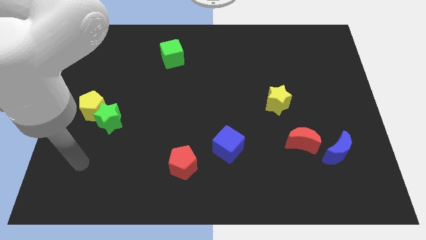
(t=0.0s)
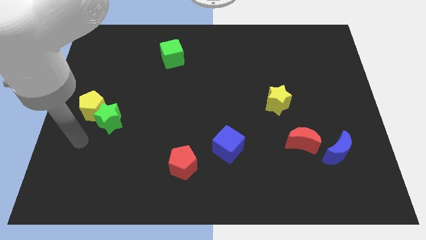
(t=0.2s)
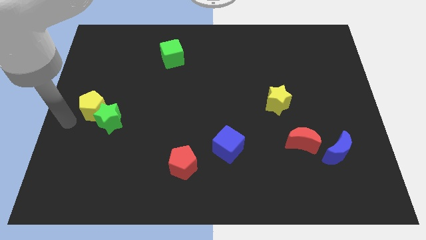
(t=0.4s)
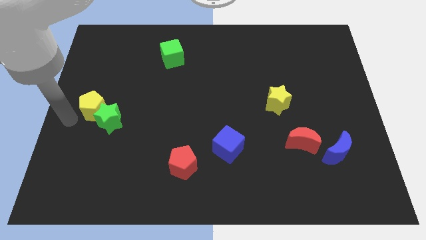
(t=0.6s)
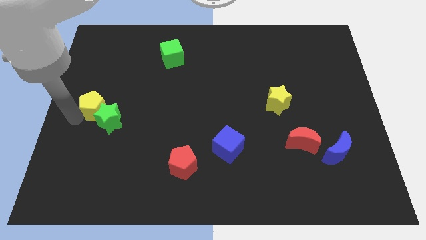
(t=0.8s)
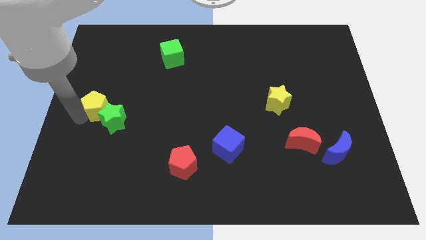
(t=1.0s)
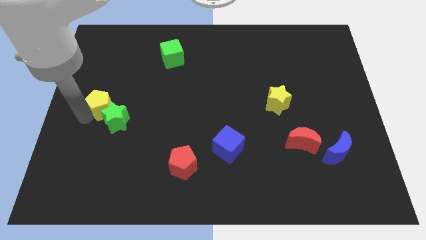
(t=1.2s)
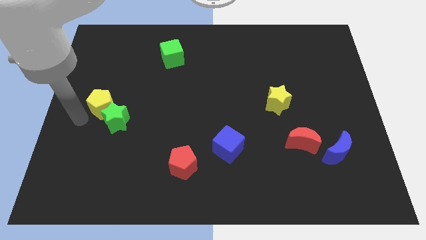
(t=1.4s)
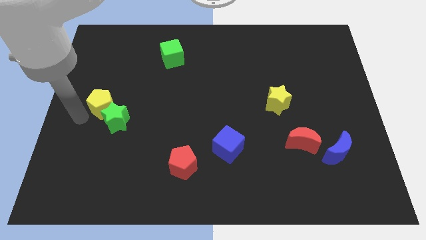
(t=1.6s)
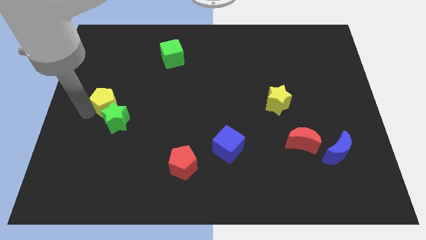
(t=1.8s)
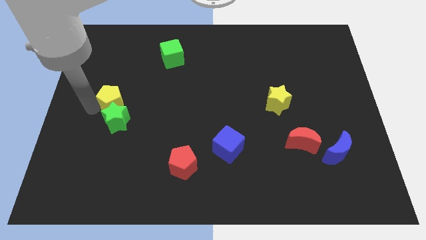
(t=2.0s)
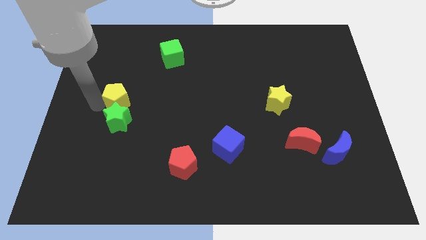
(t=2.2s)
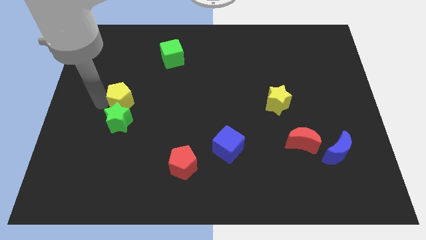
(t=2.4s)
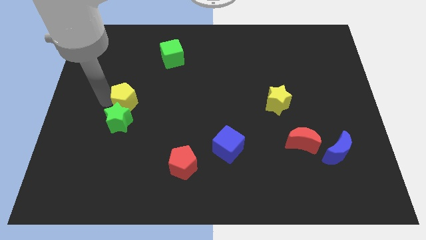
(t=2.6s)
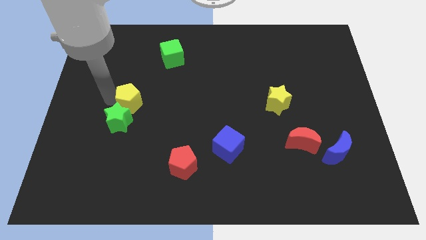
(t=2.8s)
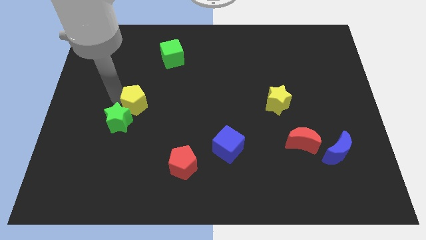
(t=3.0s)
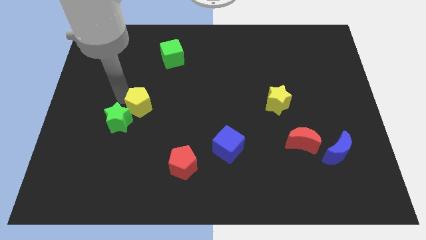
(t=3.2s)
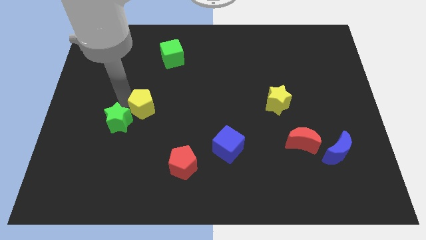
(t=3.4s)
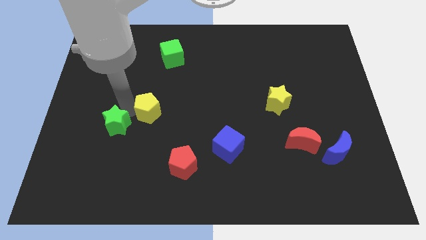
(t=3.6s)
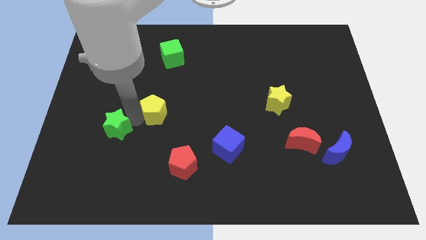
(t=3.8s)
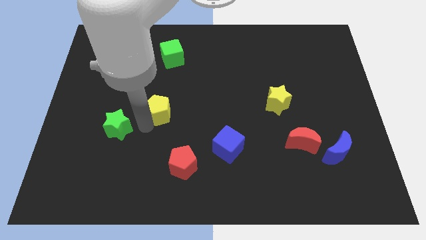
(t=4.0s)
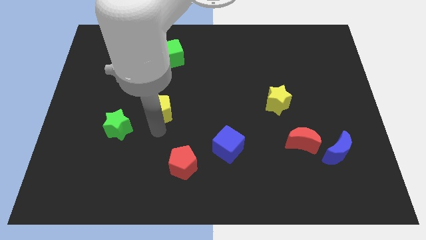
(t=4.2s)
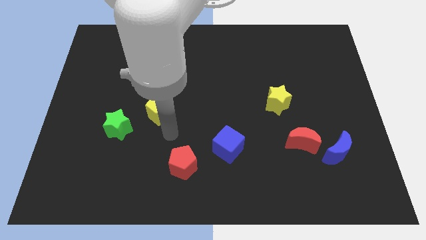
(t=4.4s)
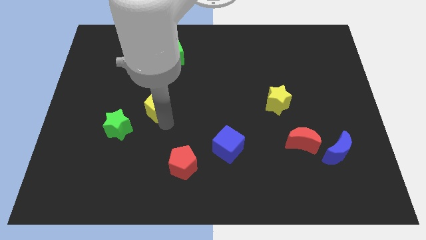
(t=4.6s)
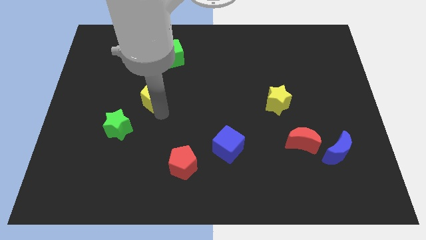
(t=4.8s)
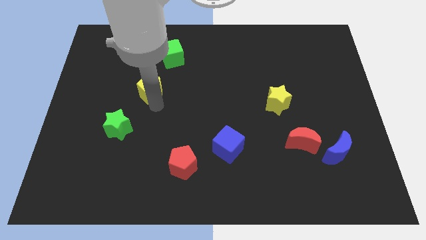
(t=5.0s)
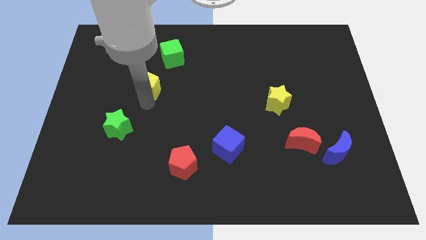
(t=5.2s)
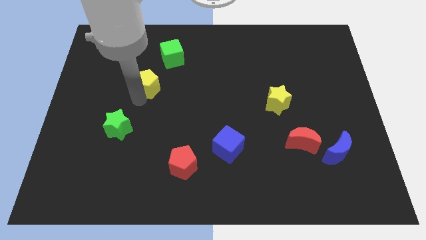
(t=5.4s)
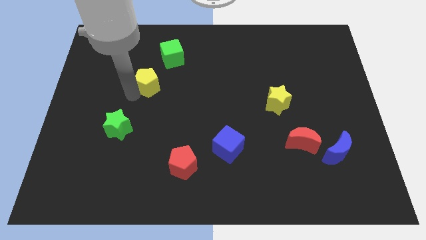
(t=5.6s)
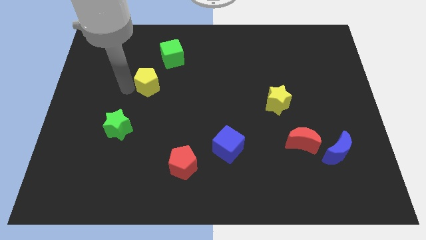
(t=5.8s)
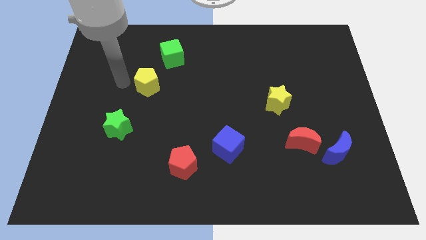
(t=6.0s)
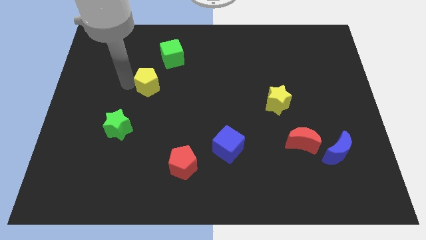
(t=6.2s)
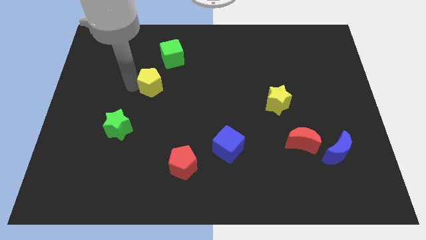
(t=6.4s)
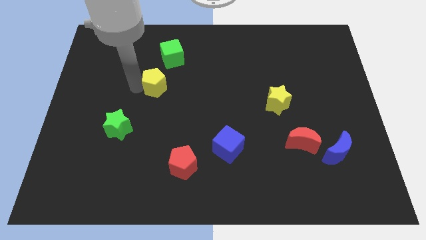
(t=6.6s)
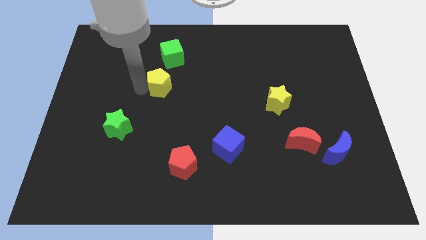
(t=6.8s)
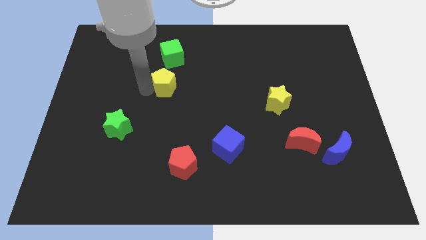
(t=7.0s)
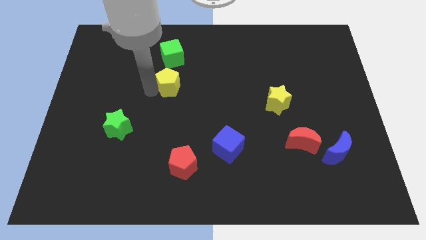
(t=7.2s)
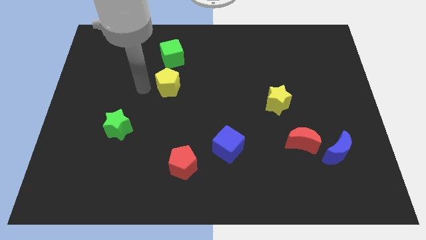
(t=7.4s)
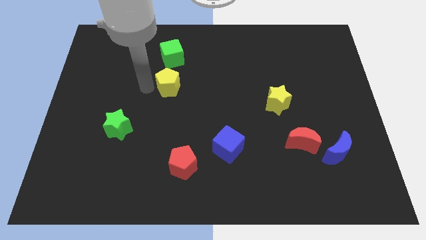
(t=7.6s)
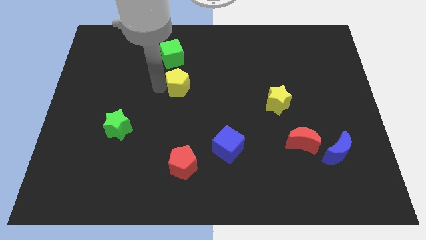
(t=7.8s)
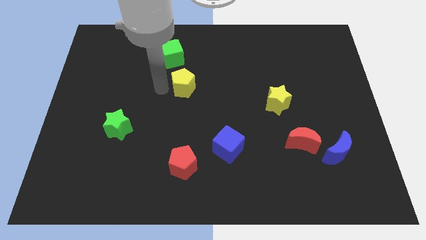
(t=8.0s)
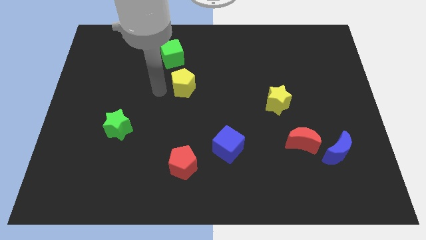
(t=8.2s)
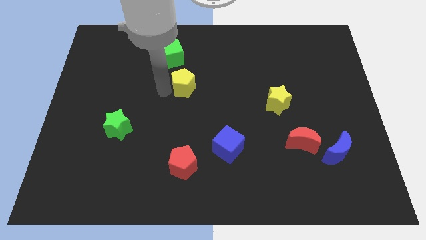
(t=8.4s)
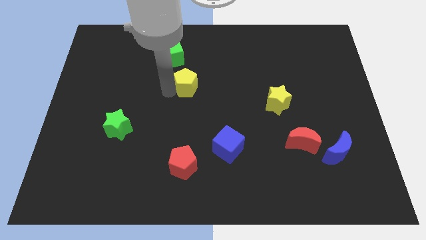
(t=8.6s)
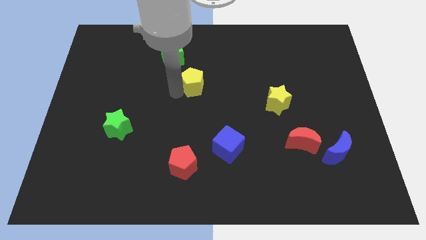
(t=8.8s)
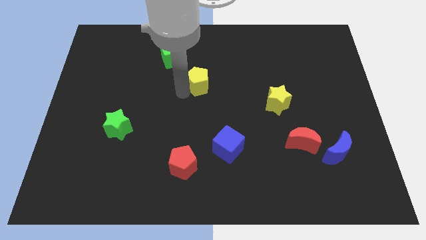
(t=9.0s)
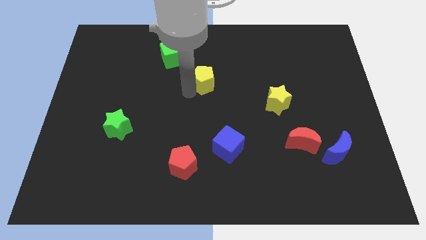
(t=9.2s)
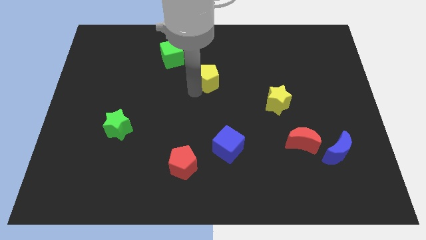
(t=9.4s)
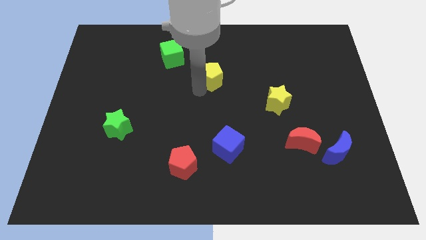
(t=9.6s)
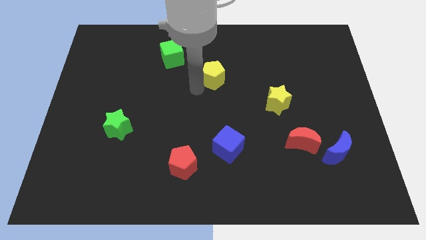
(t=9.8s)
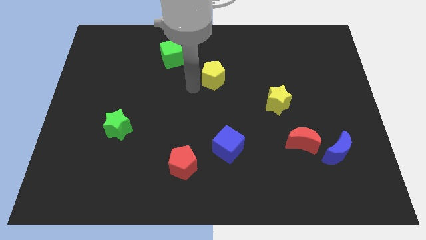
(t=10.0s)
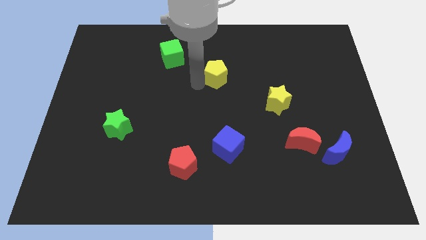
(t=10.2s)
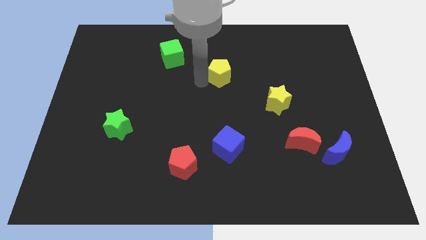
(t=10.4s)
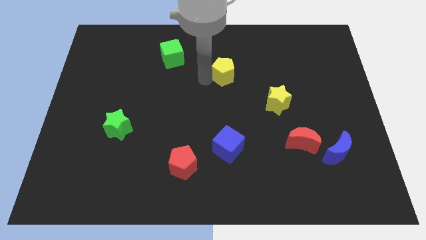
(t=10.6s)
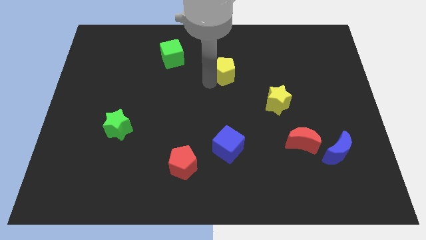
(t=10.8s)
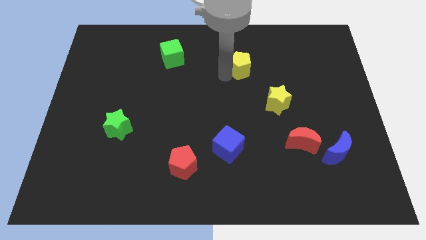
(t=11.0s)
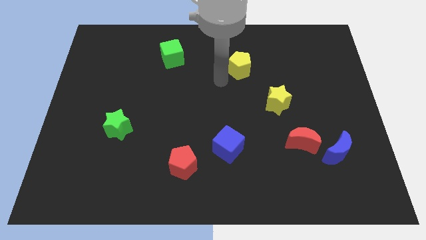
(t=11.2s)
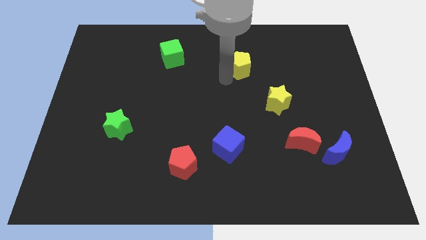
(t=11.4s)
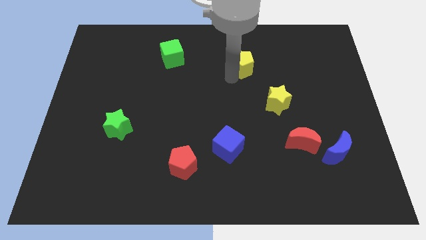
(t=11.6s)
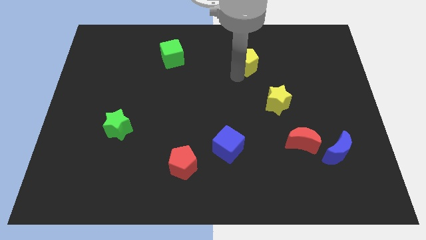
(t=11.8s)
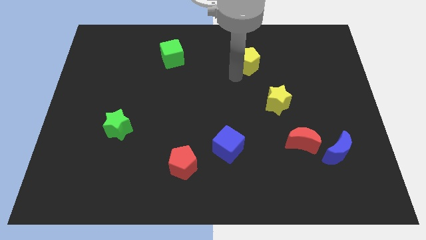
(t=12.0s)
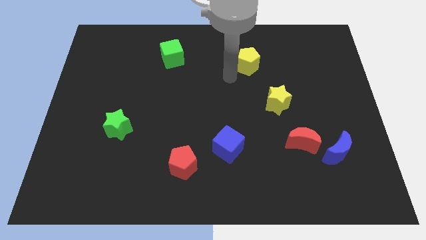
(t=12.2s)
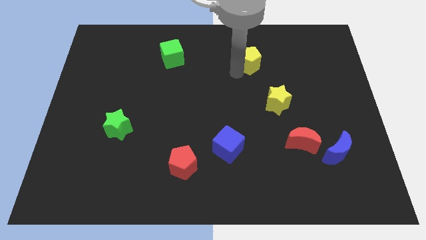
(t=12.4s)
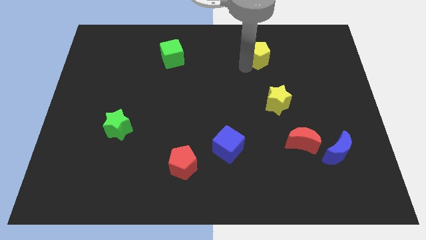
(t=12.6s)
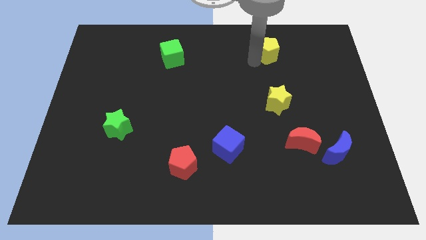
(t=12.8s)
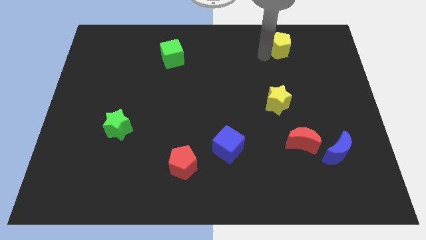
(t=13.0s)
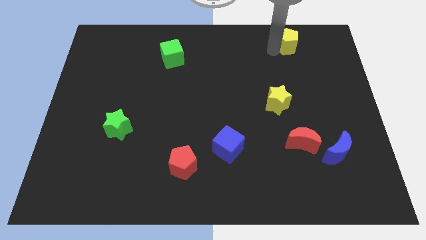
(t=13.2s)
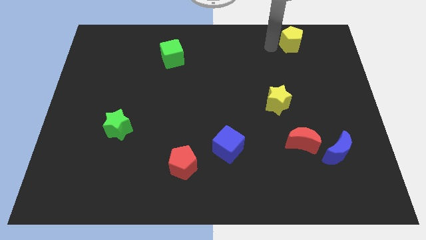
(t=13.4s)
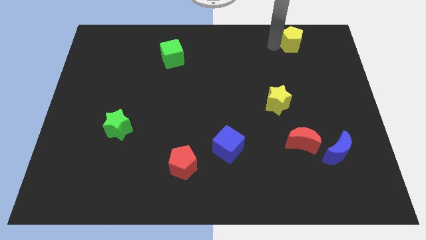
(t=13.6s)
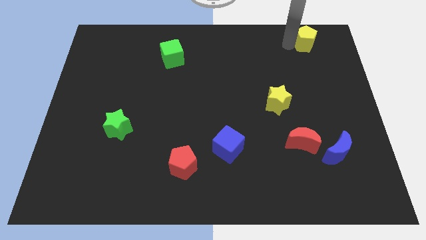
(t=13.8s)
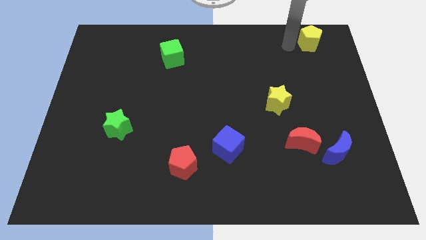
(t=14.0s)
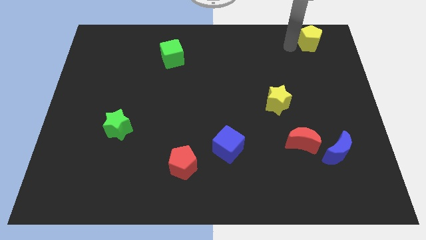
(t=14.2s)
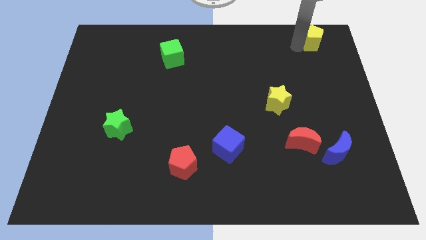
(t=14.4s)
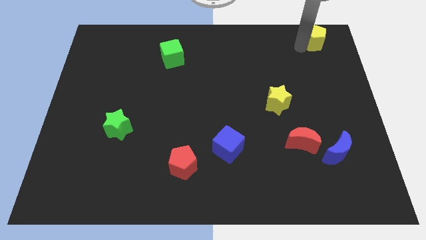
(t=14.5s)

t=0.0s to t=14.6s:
slide the yellow pentagon to the top right
